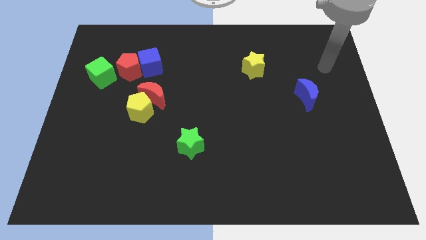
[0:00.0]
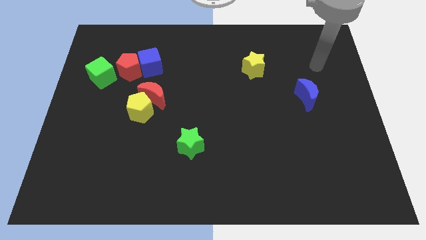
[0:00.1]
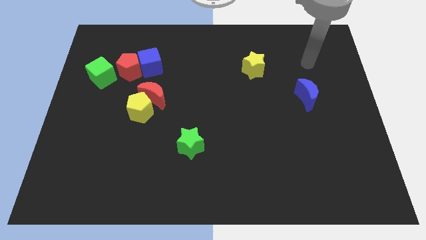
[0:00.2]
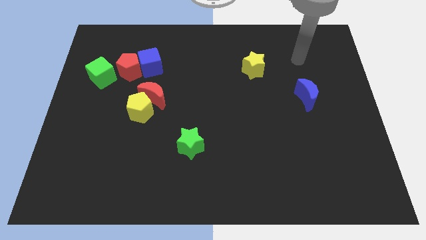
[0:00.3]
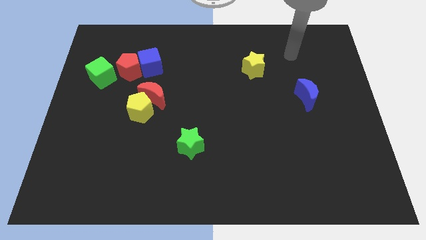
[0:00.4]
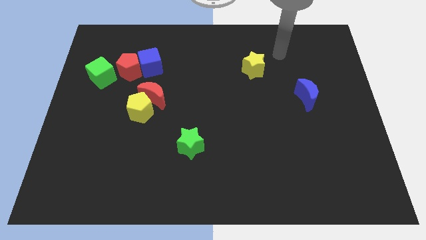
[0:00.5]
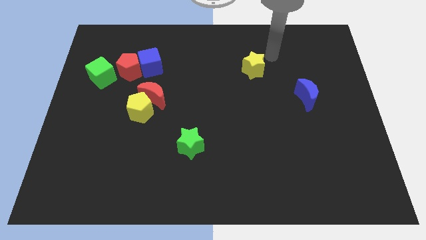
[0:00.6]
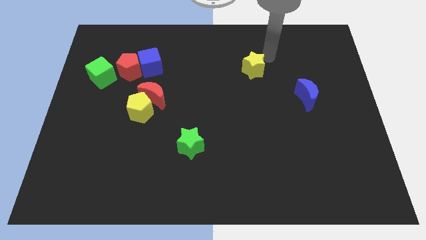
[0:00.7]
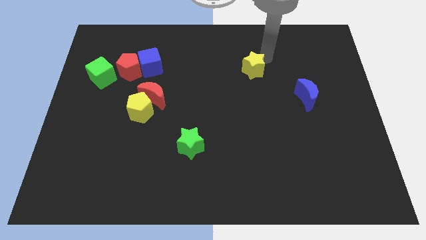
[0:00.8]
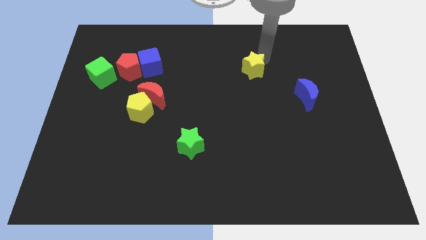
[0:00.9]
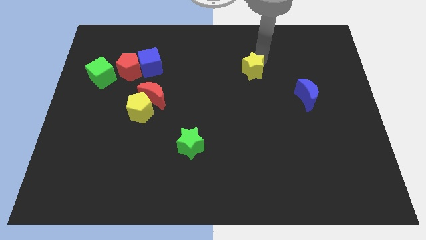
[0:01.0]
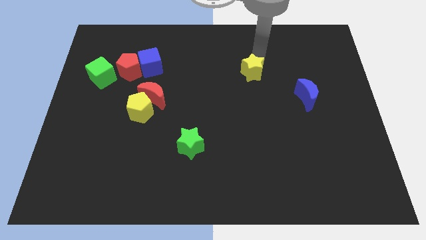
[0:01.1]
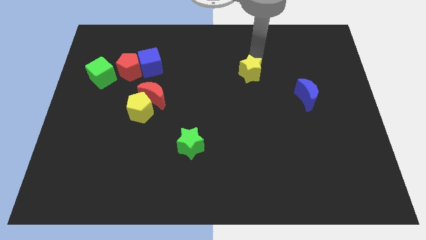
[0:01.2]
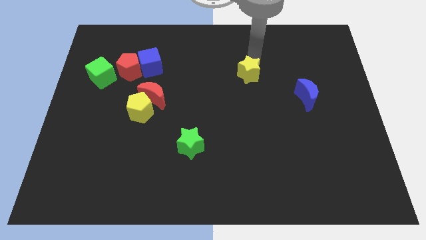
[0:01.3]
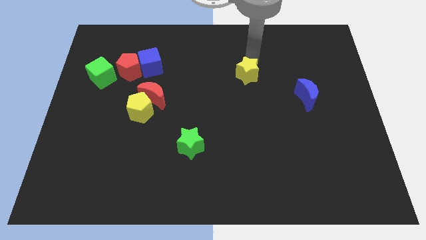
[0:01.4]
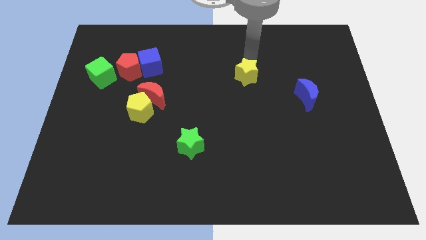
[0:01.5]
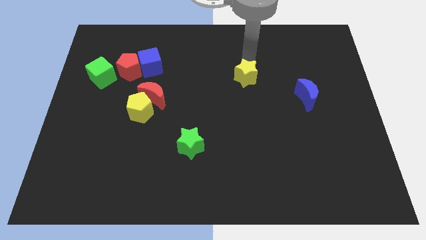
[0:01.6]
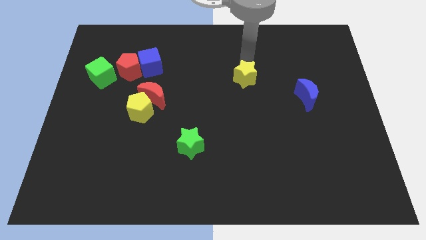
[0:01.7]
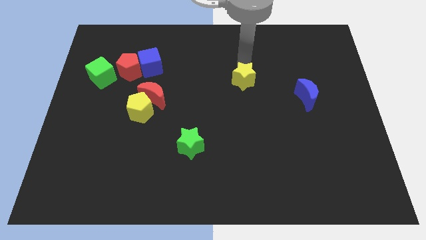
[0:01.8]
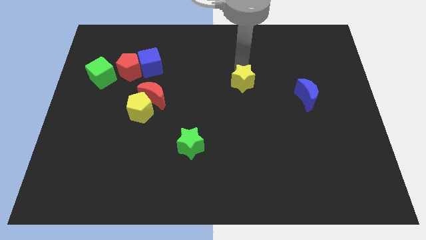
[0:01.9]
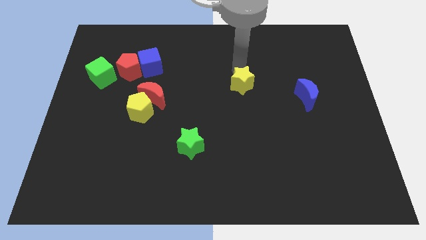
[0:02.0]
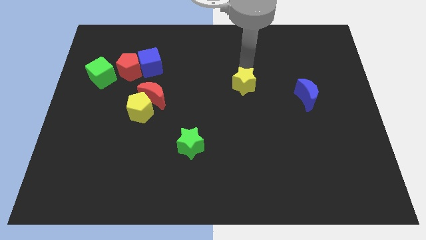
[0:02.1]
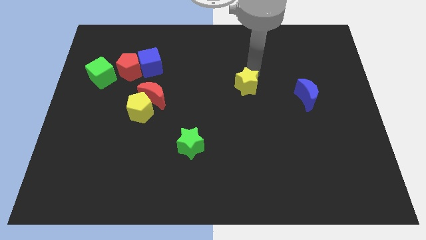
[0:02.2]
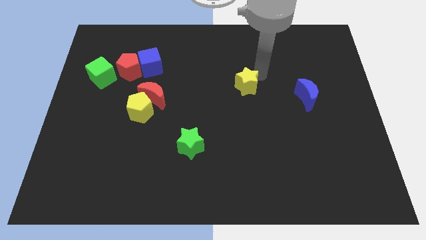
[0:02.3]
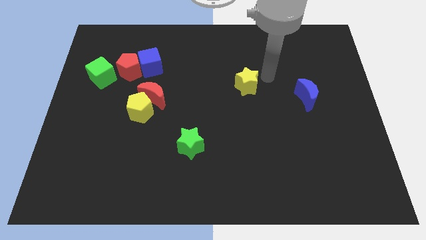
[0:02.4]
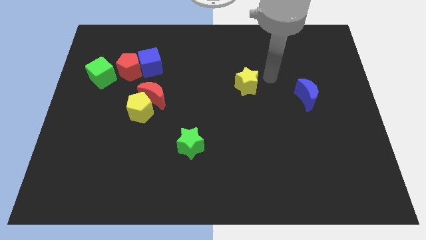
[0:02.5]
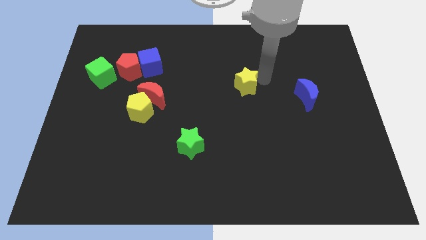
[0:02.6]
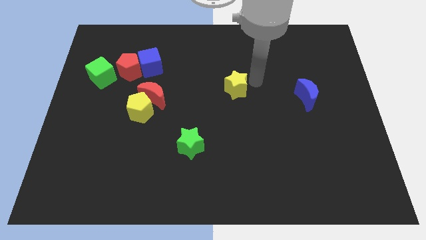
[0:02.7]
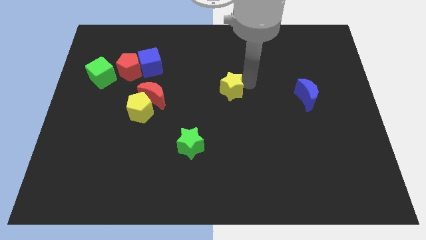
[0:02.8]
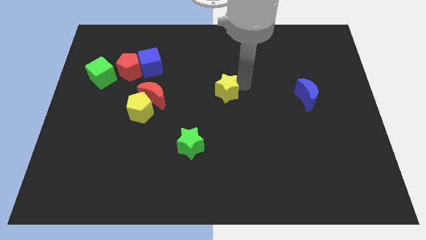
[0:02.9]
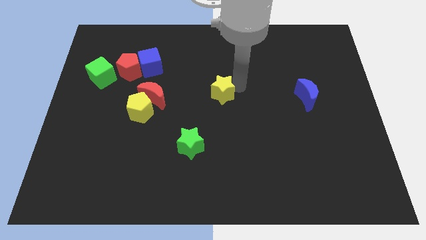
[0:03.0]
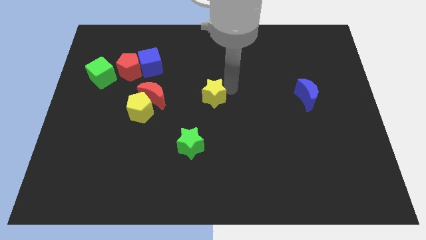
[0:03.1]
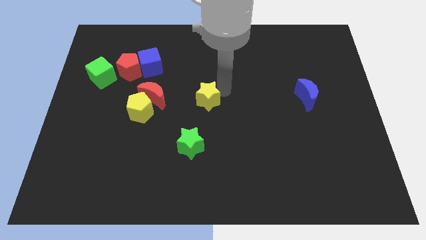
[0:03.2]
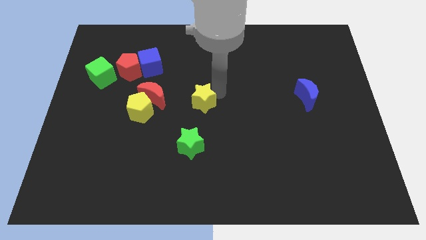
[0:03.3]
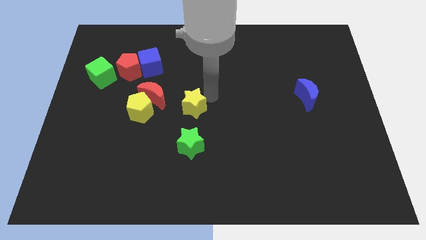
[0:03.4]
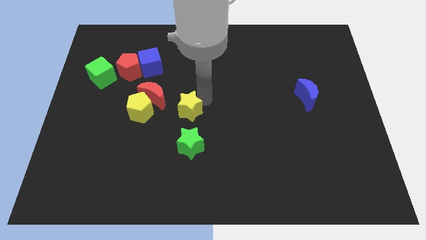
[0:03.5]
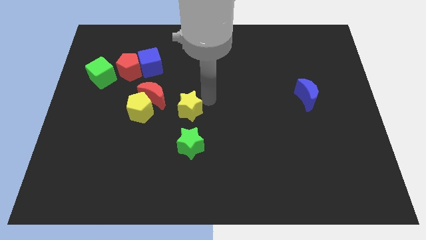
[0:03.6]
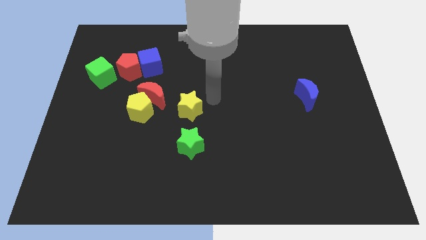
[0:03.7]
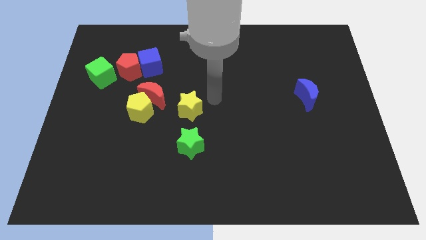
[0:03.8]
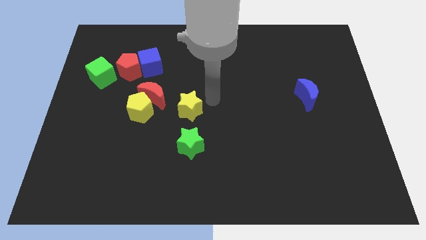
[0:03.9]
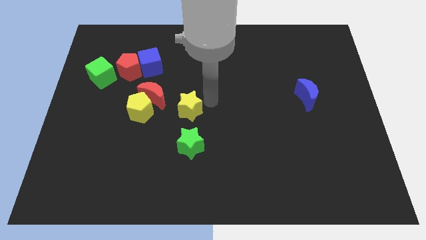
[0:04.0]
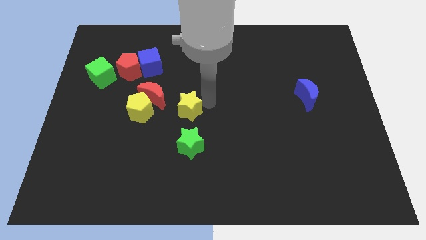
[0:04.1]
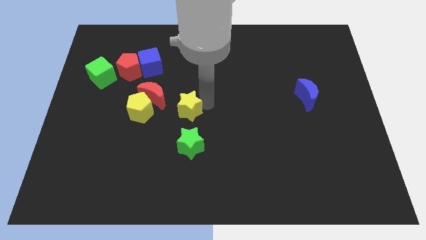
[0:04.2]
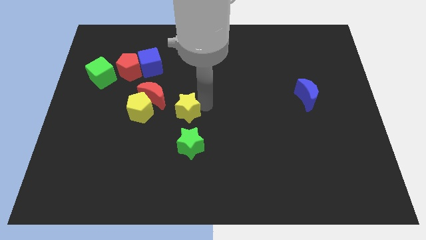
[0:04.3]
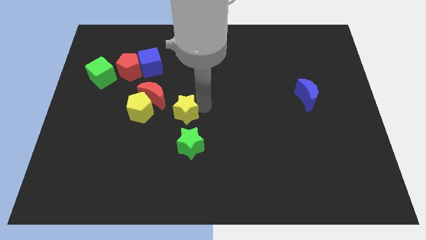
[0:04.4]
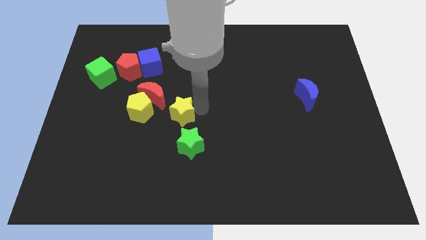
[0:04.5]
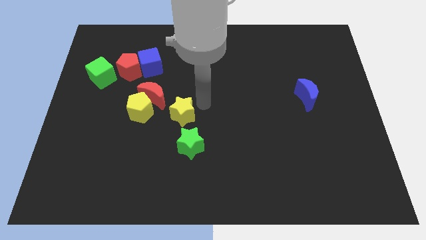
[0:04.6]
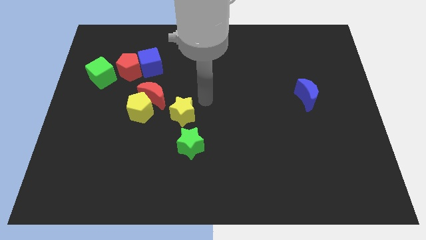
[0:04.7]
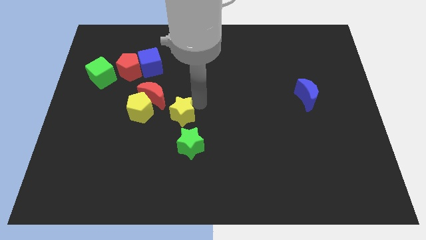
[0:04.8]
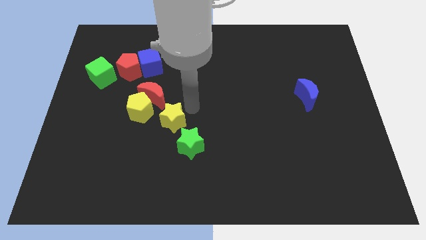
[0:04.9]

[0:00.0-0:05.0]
move the yellow star below the red moon

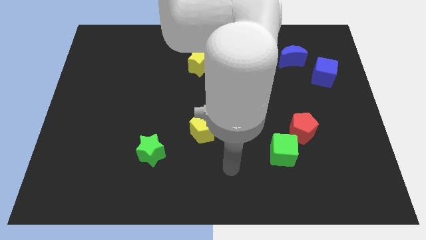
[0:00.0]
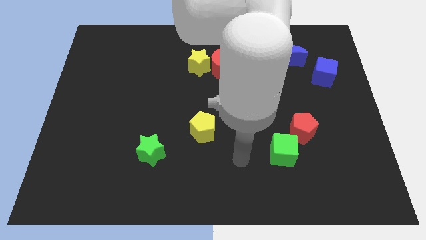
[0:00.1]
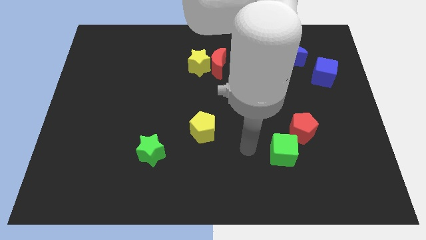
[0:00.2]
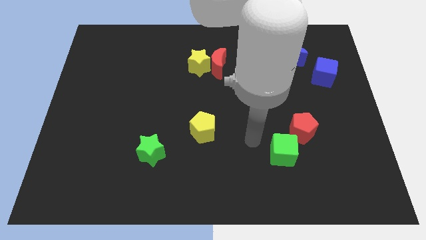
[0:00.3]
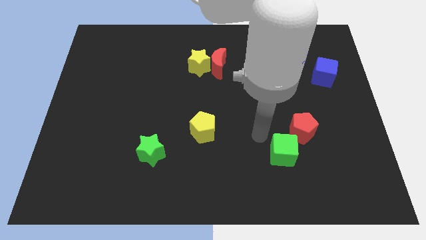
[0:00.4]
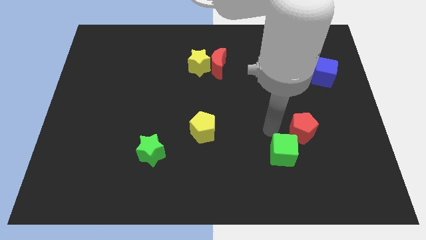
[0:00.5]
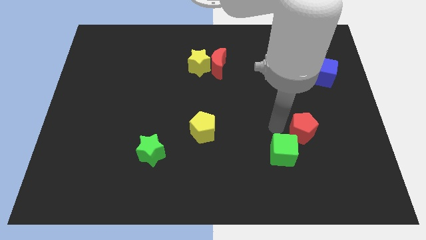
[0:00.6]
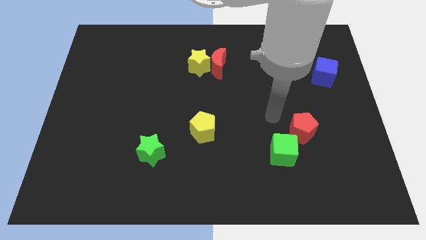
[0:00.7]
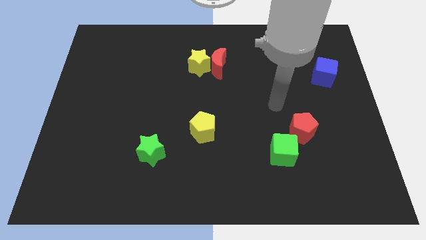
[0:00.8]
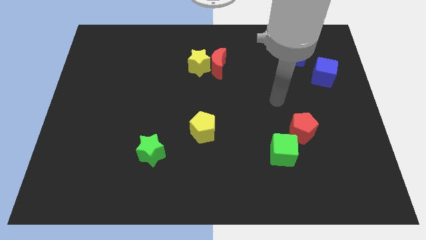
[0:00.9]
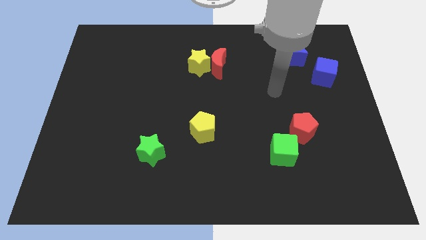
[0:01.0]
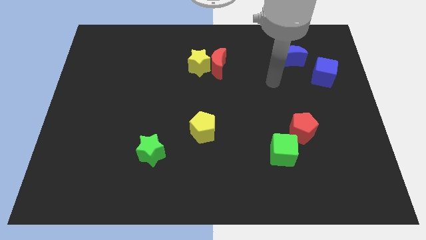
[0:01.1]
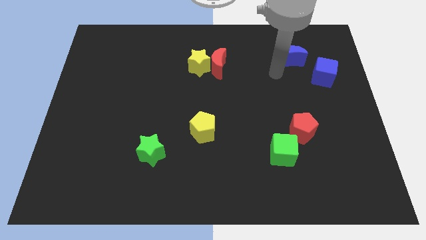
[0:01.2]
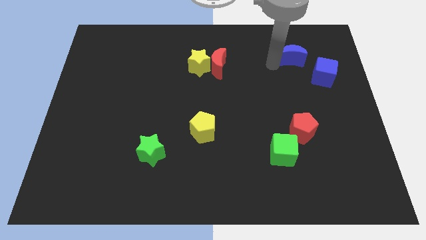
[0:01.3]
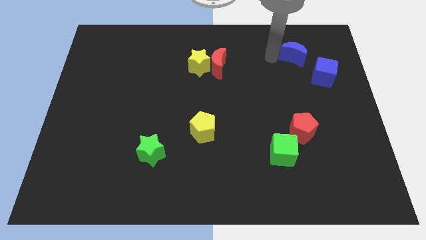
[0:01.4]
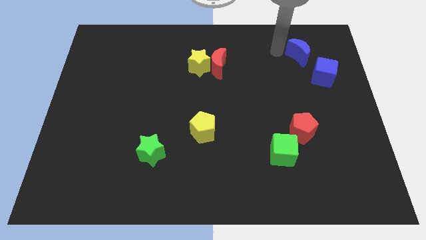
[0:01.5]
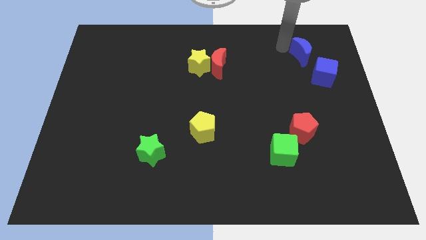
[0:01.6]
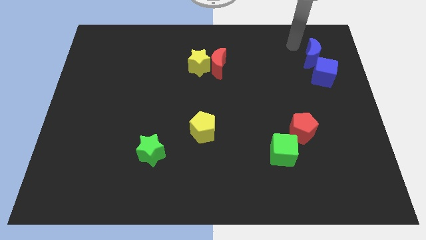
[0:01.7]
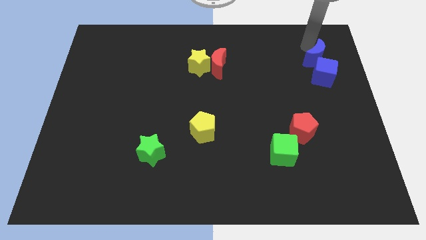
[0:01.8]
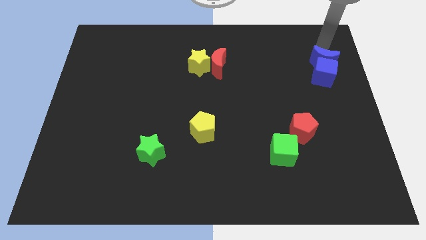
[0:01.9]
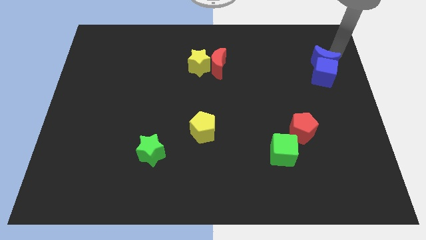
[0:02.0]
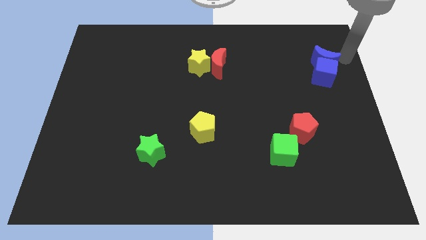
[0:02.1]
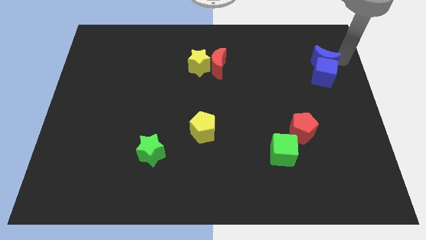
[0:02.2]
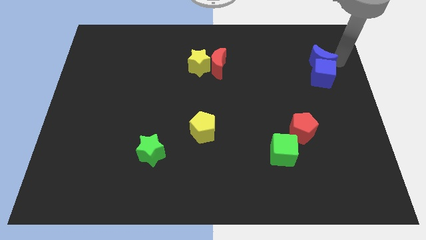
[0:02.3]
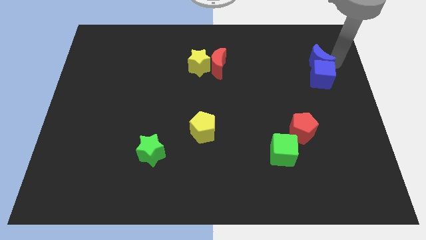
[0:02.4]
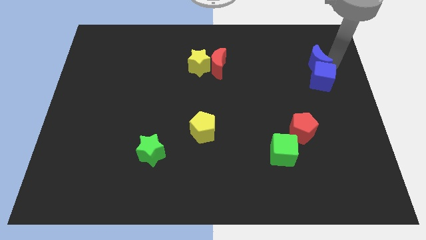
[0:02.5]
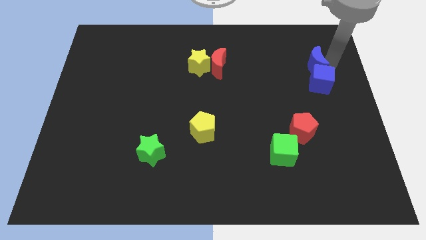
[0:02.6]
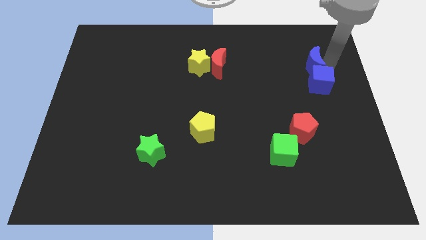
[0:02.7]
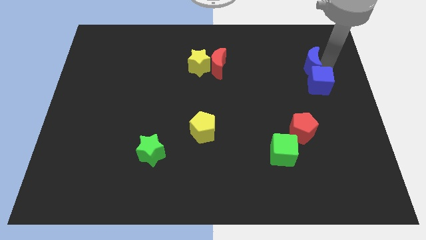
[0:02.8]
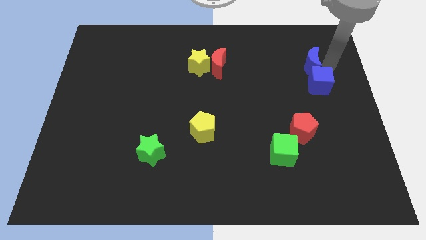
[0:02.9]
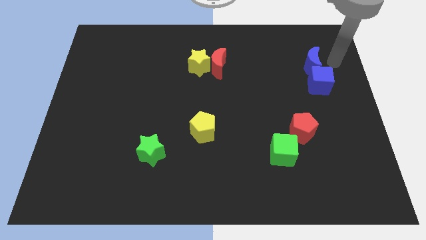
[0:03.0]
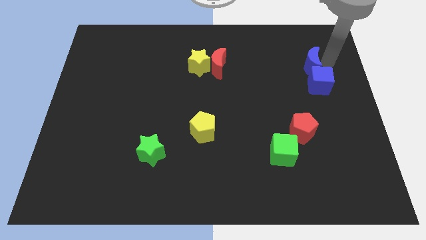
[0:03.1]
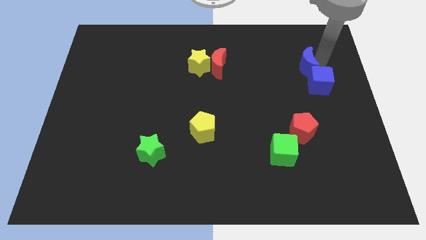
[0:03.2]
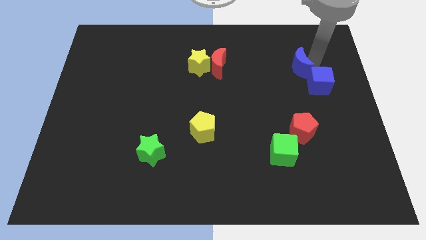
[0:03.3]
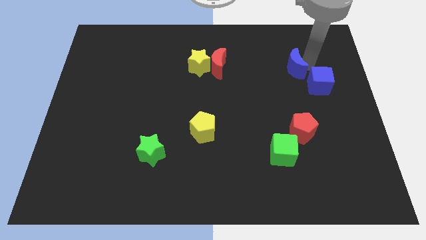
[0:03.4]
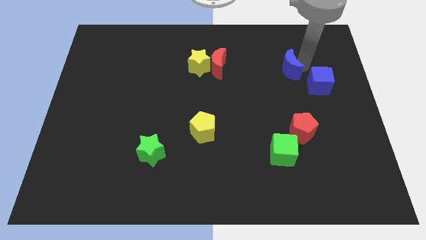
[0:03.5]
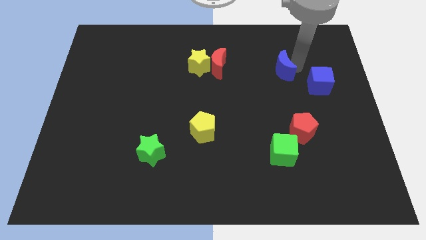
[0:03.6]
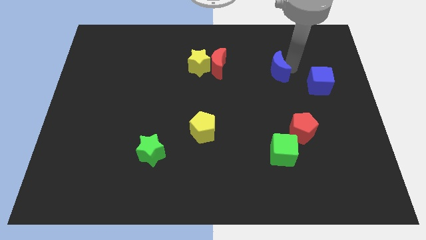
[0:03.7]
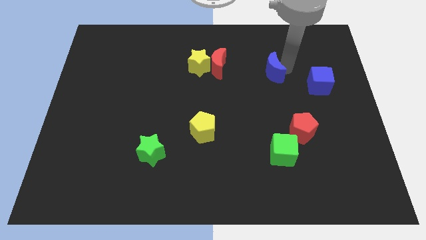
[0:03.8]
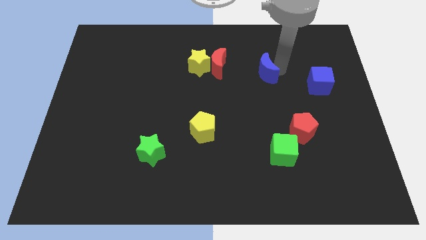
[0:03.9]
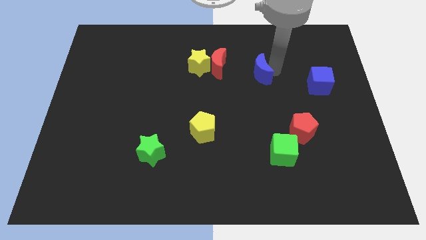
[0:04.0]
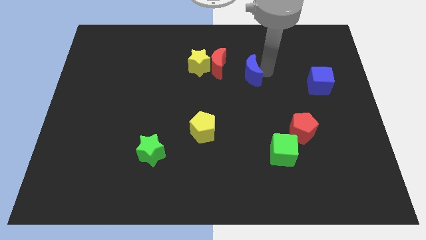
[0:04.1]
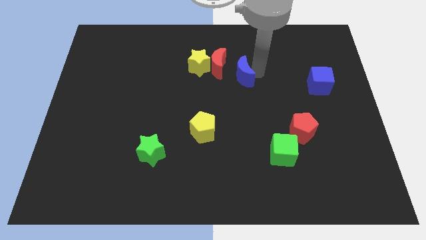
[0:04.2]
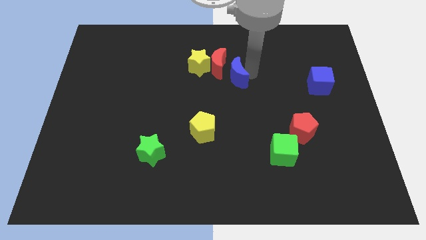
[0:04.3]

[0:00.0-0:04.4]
push the blue moon to the bottom right of the yellow star
